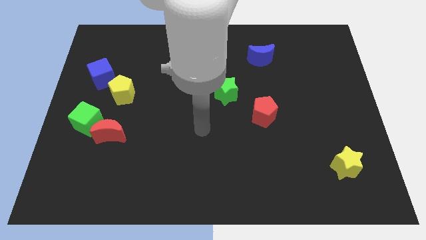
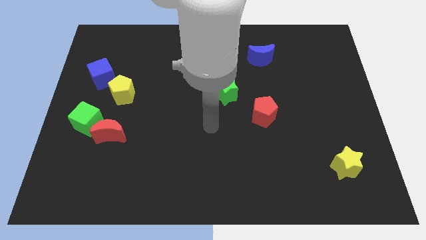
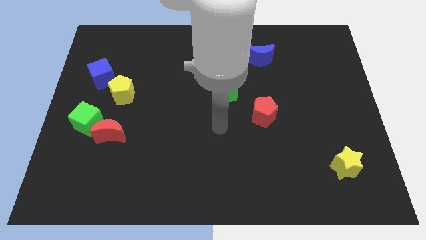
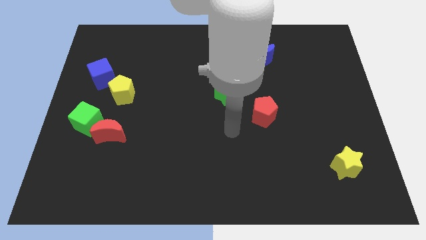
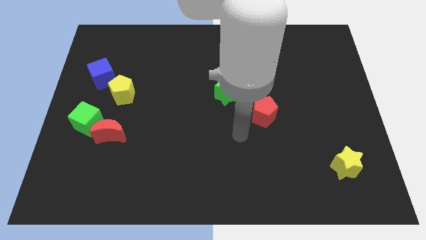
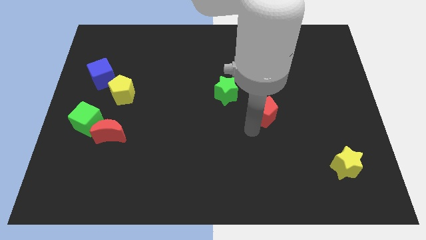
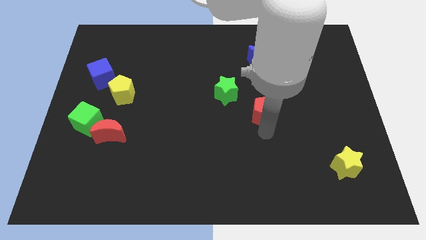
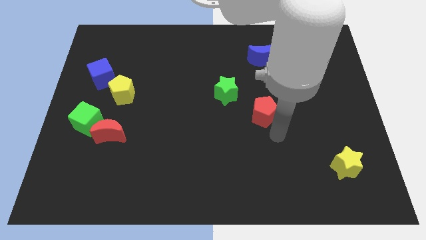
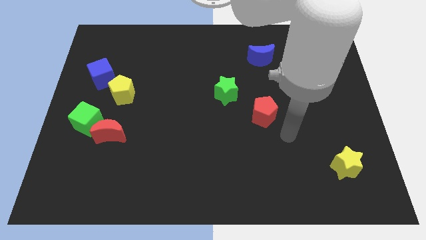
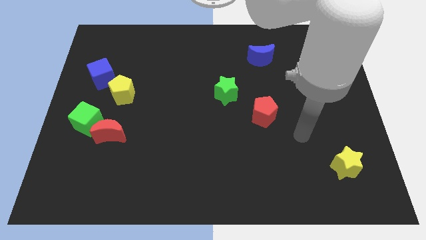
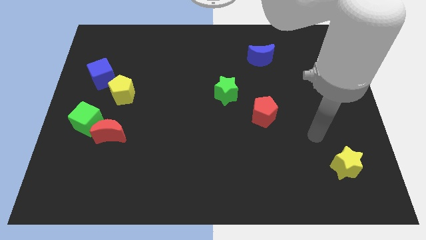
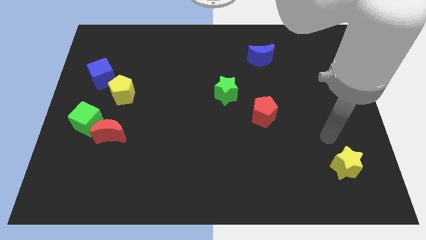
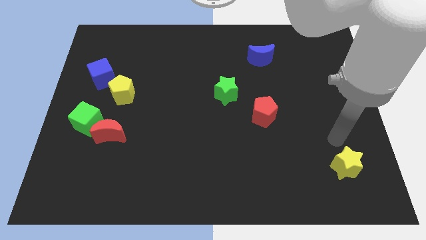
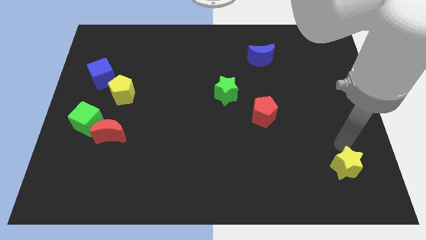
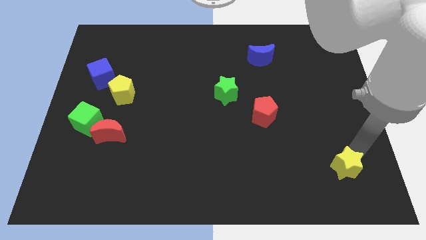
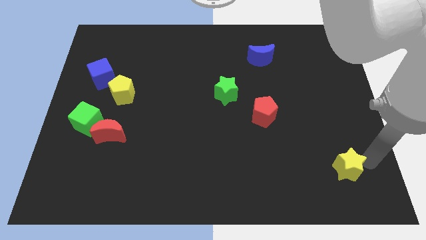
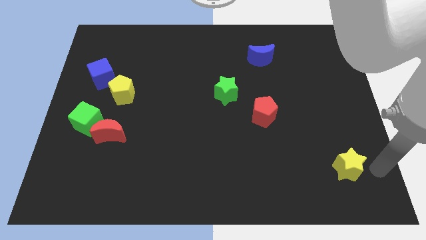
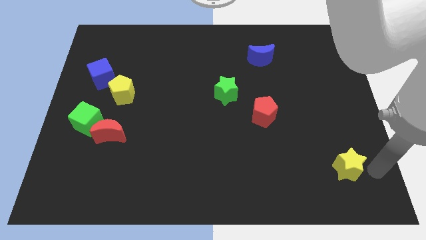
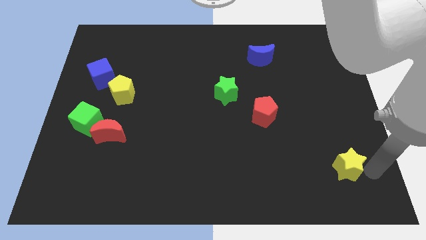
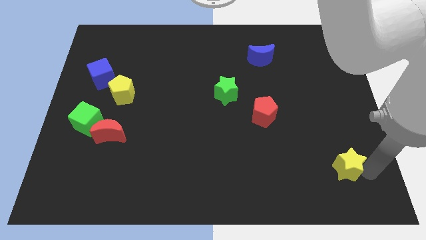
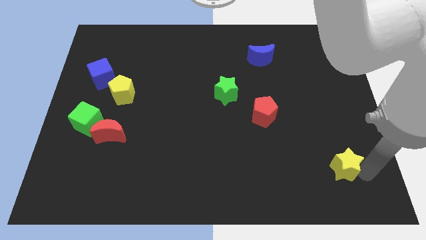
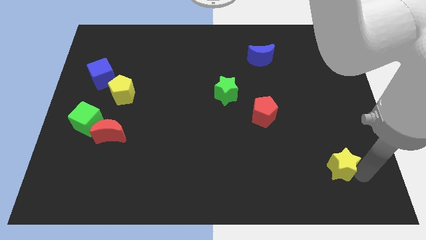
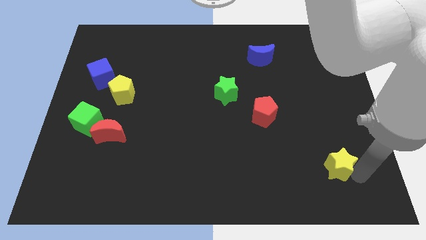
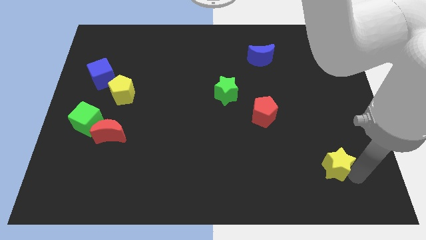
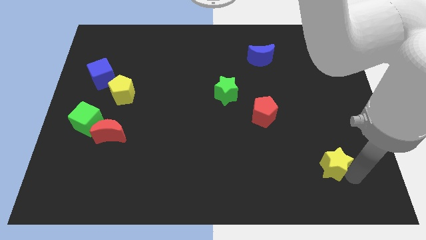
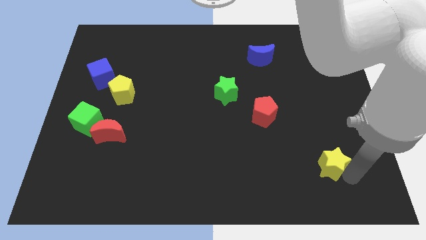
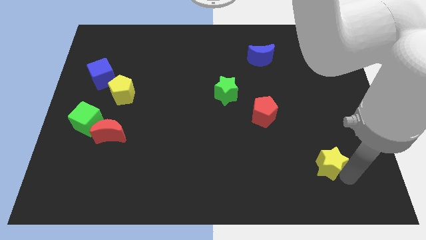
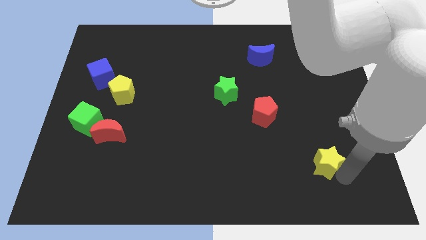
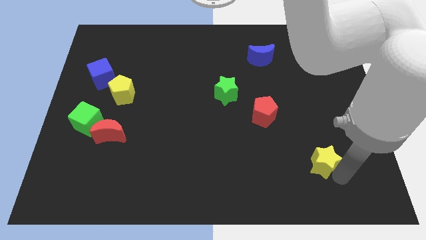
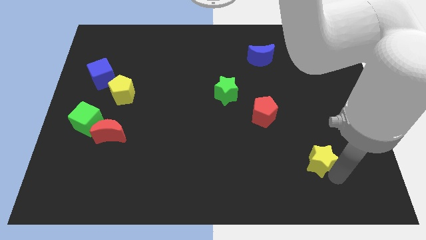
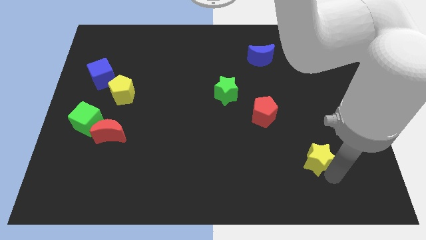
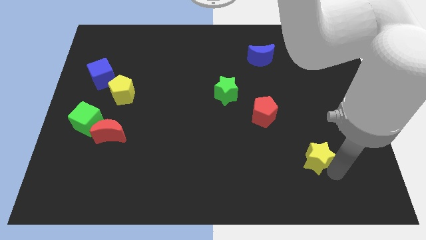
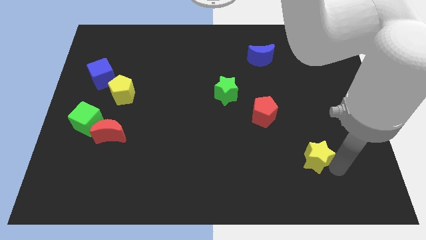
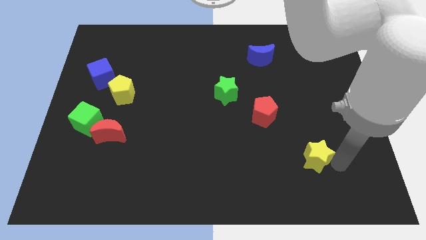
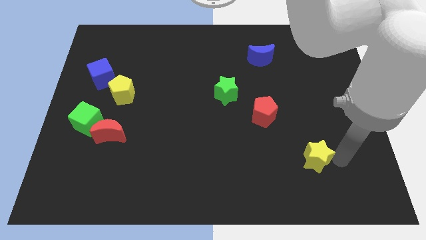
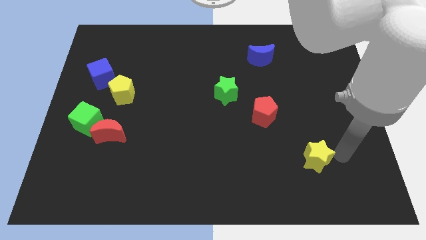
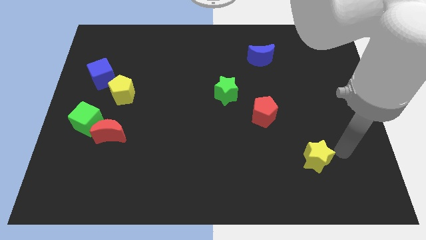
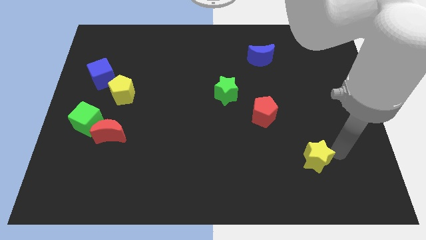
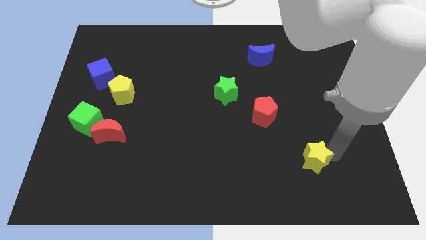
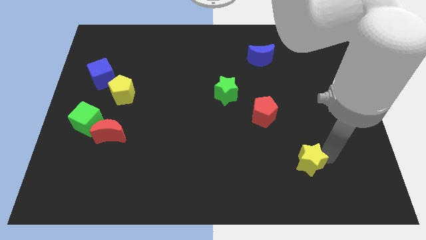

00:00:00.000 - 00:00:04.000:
slightly slide the yellow star left

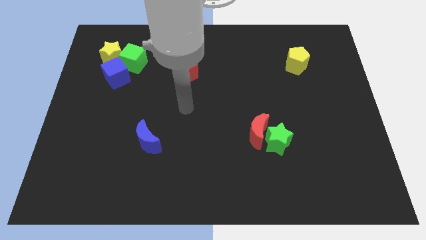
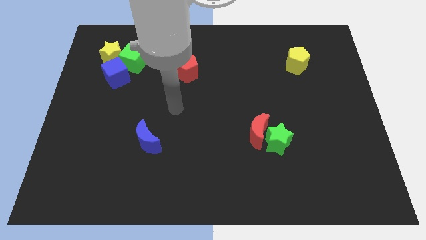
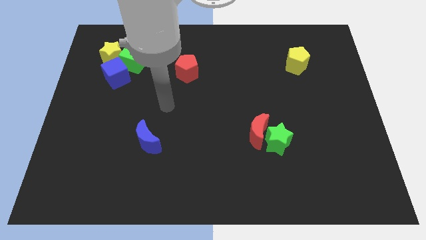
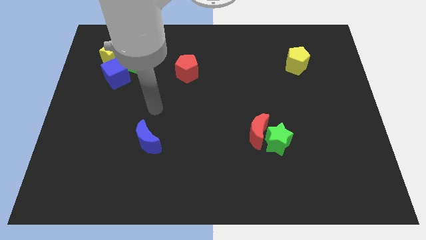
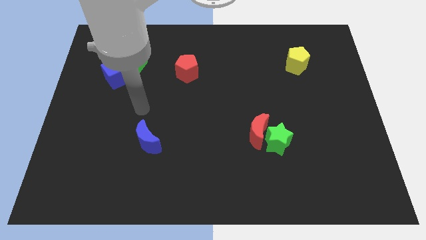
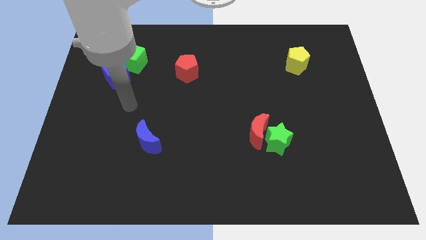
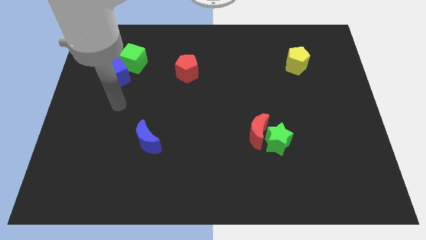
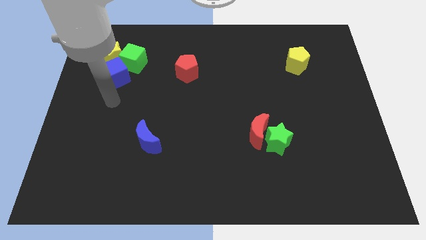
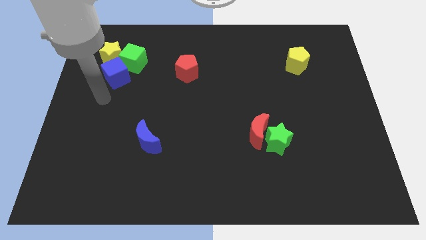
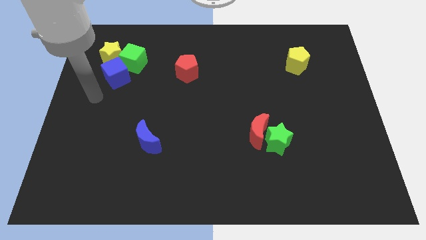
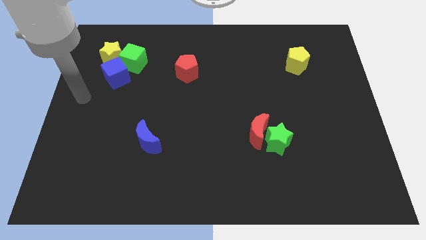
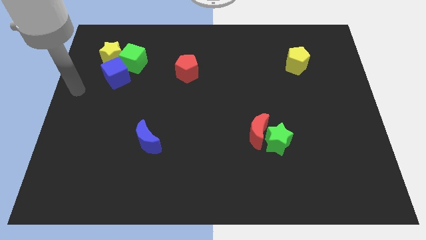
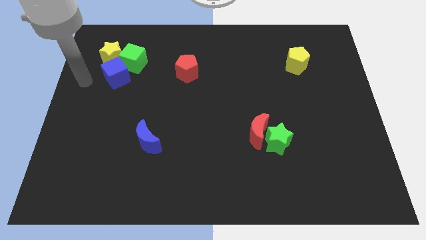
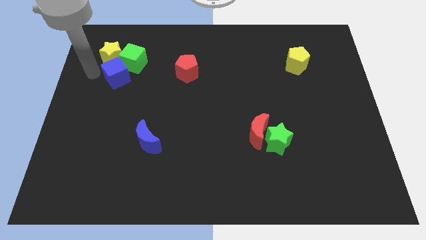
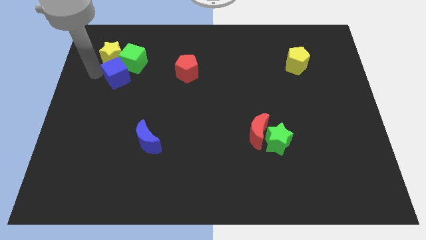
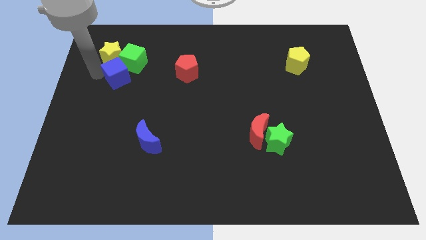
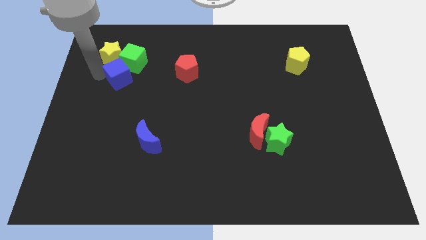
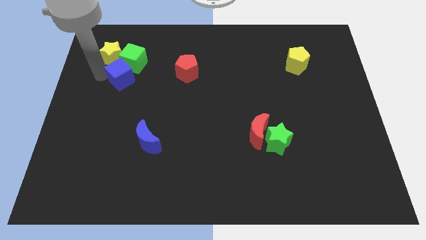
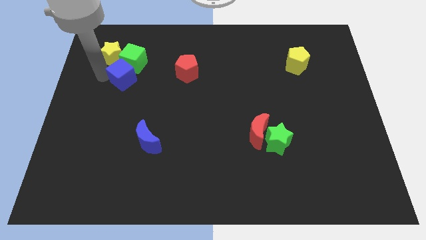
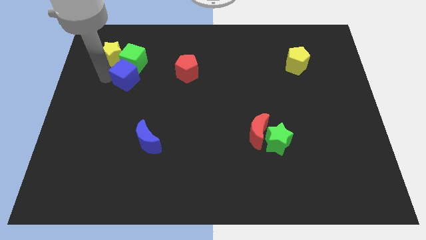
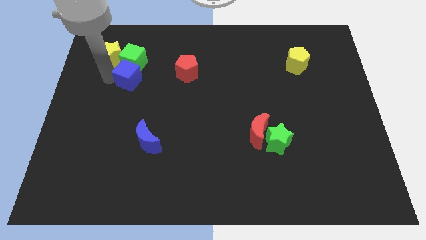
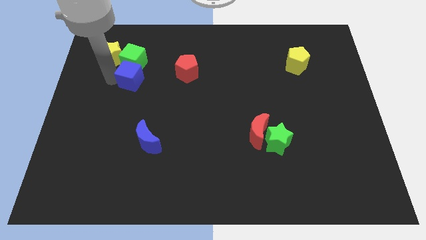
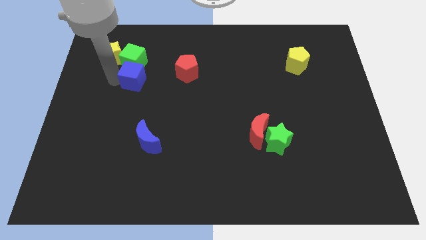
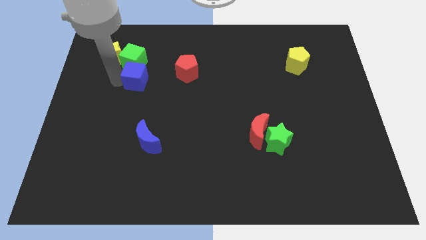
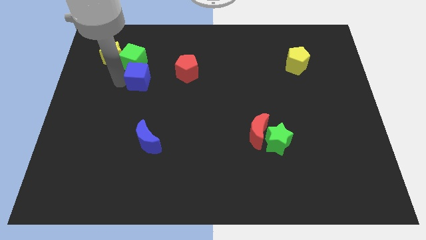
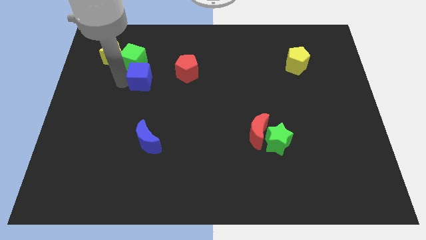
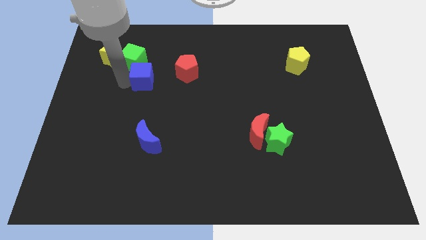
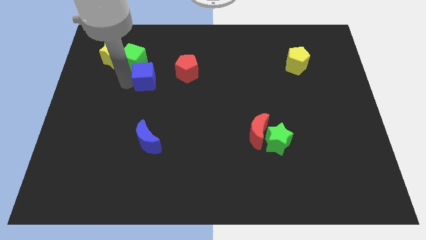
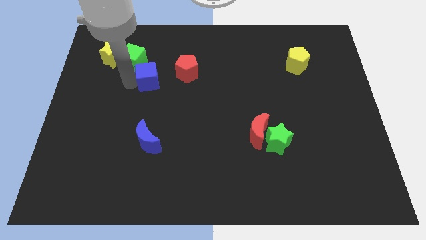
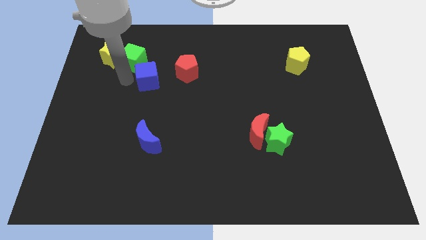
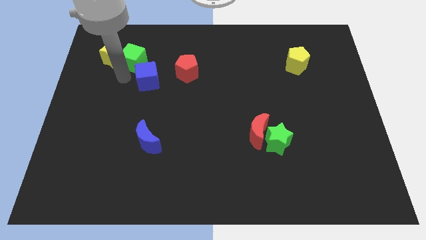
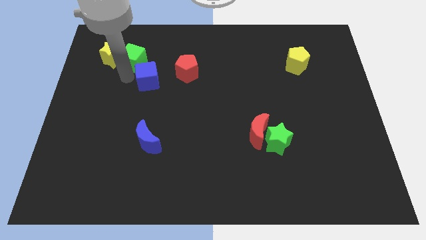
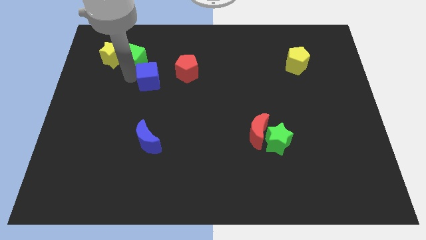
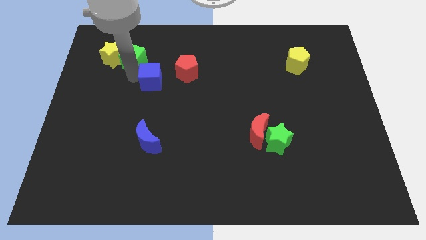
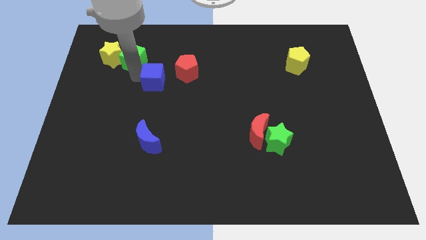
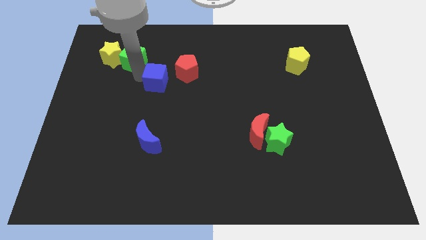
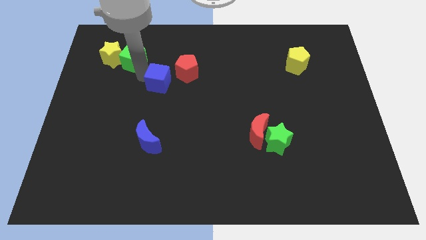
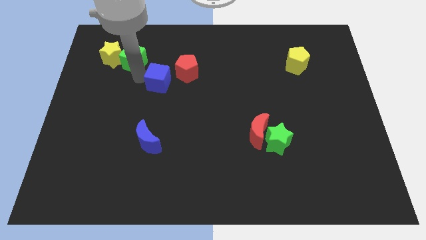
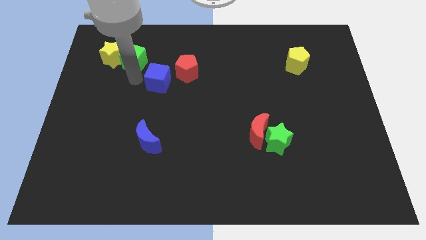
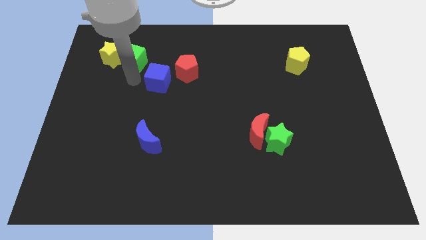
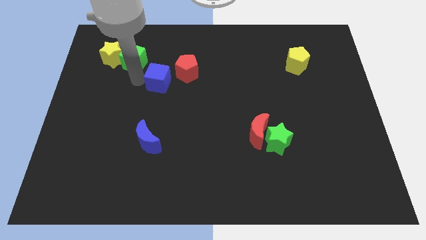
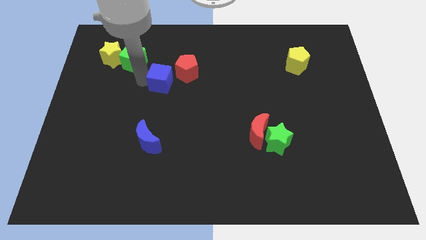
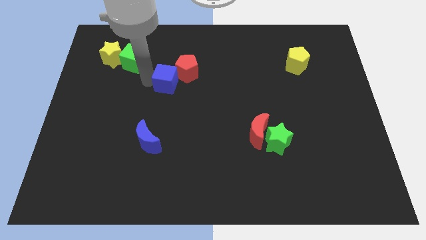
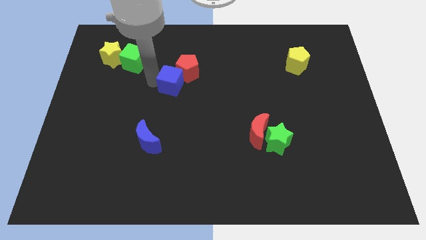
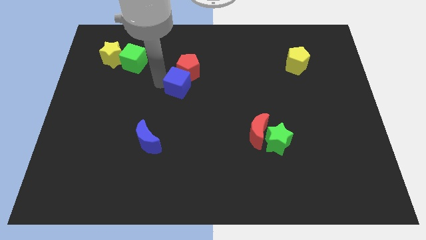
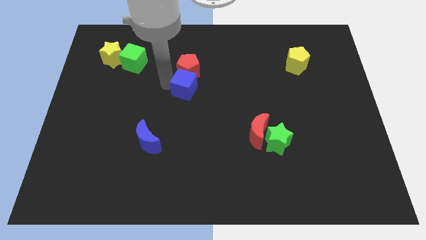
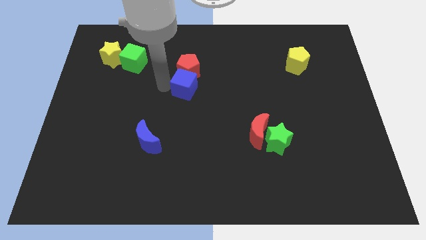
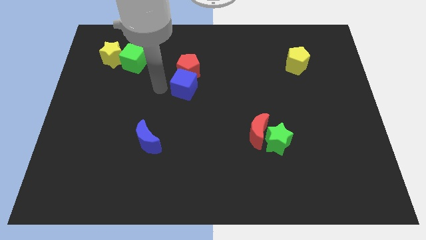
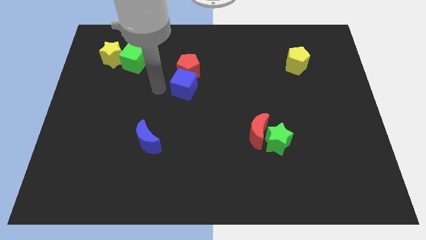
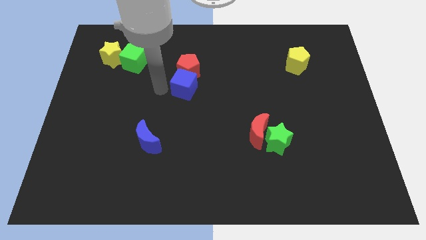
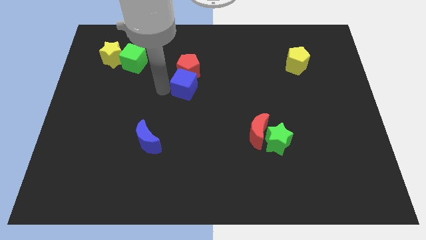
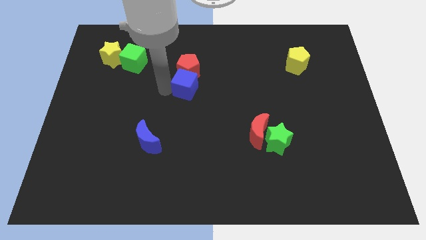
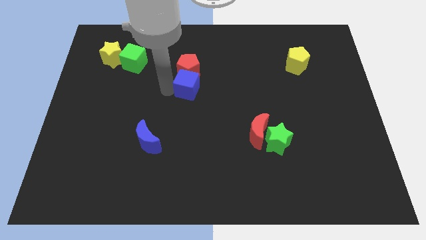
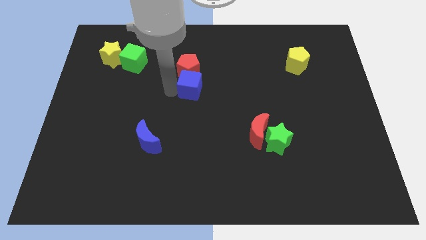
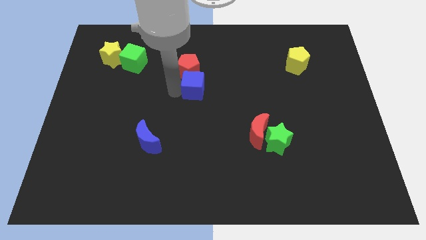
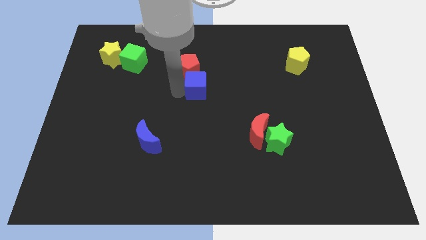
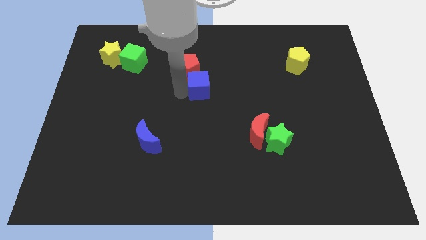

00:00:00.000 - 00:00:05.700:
push the blue cube right
